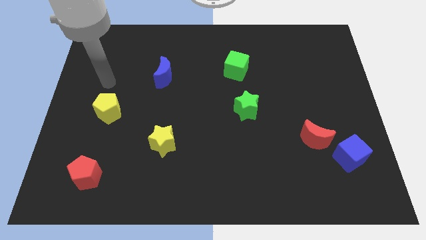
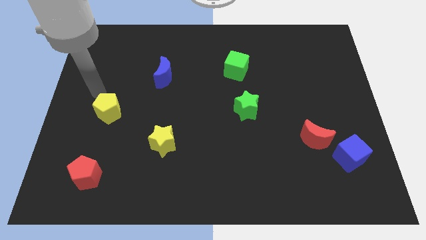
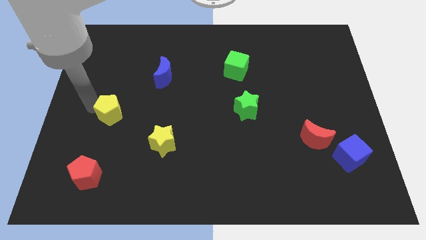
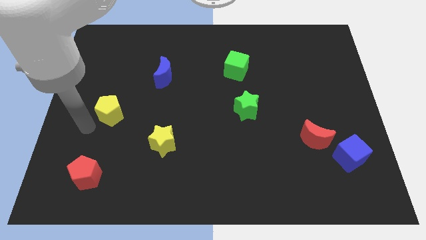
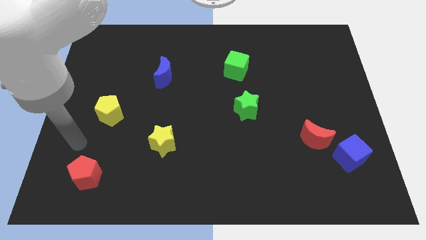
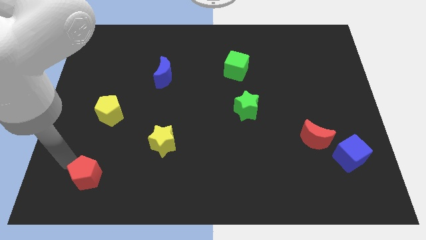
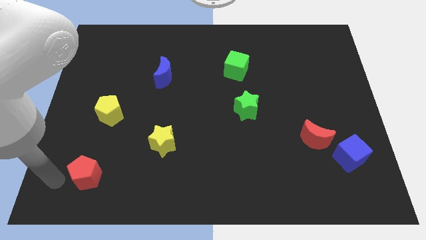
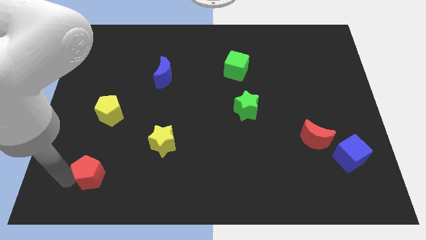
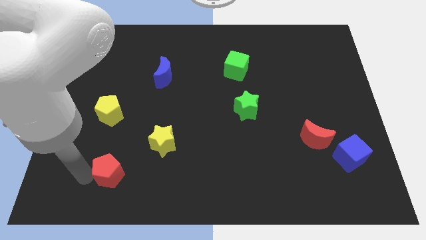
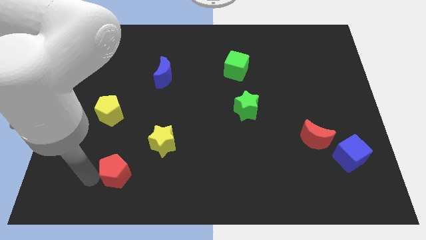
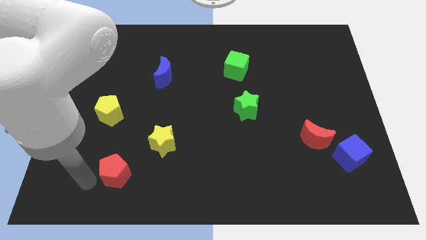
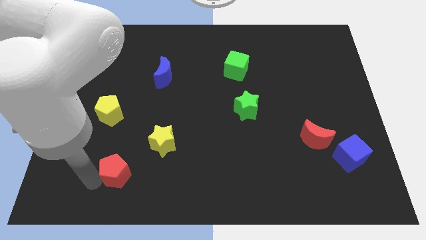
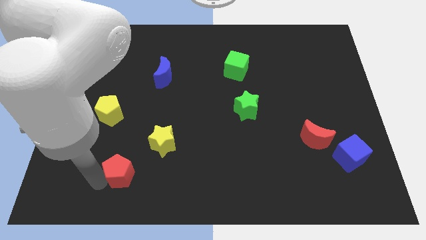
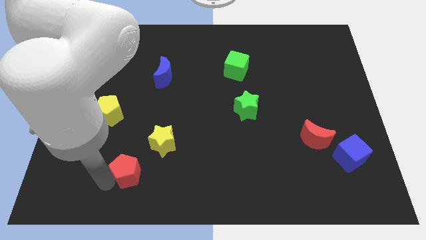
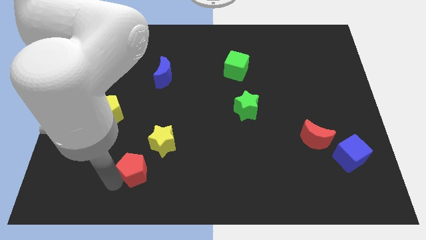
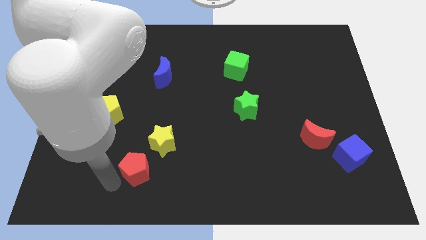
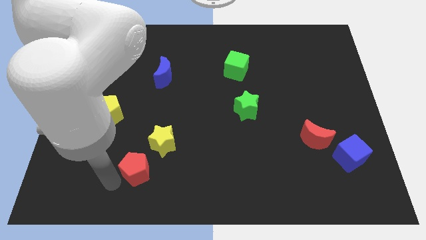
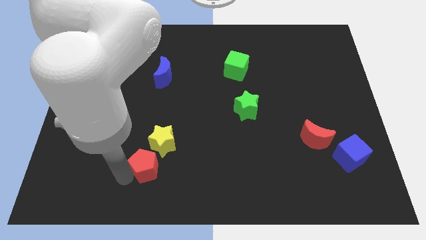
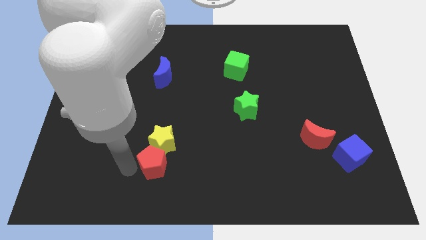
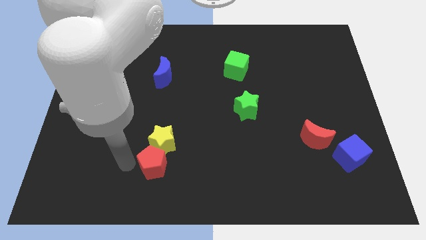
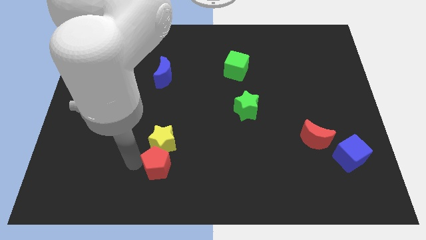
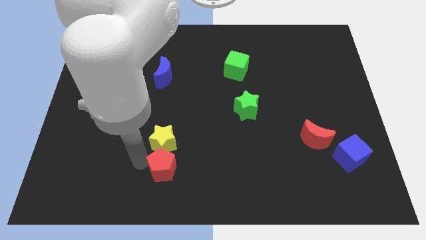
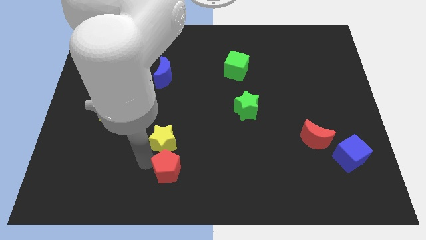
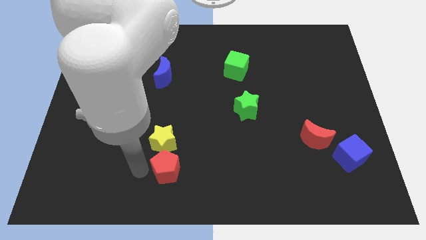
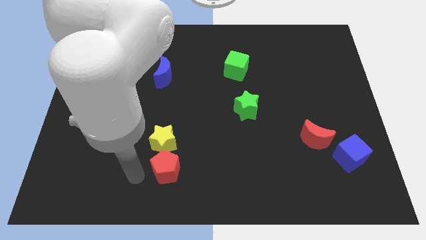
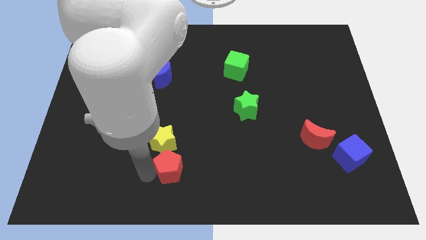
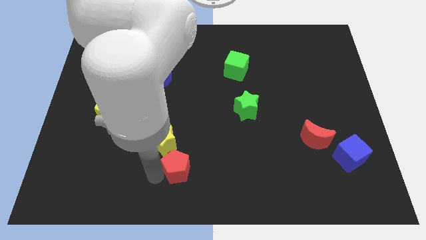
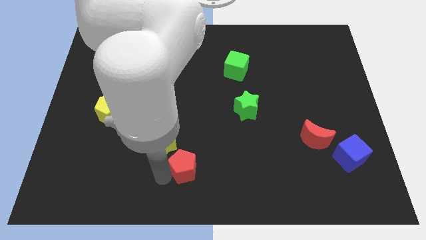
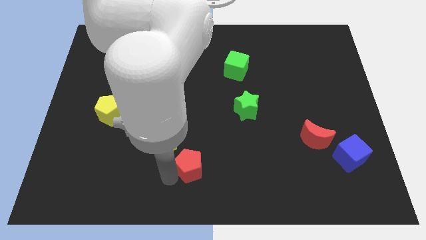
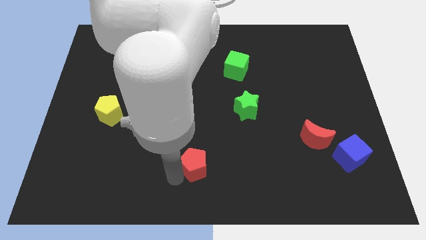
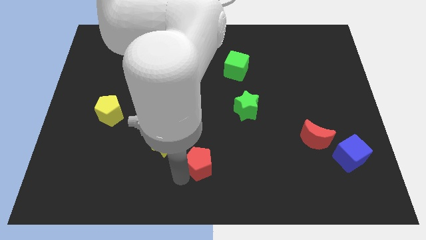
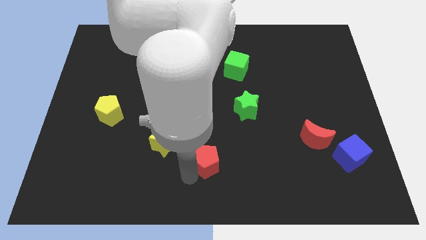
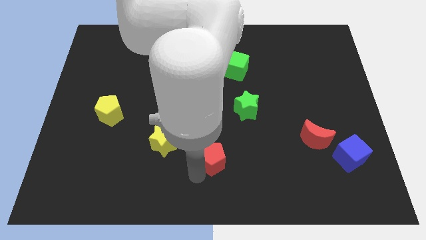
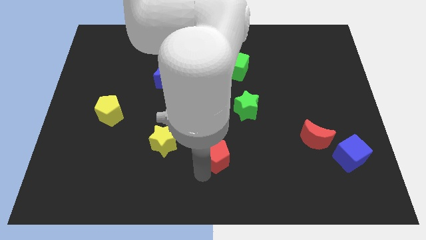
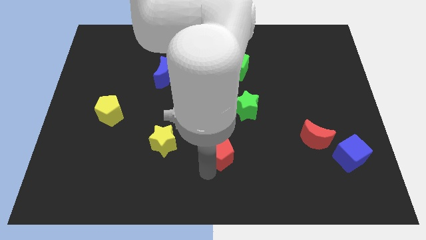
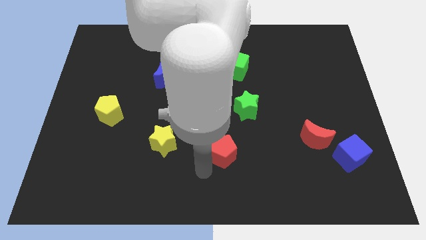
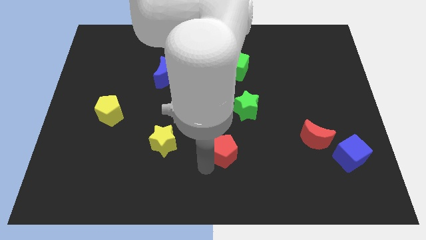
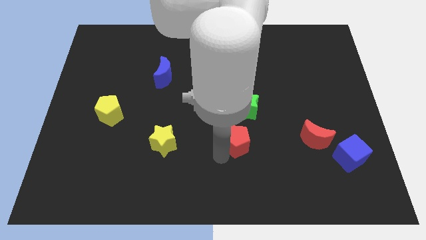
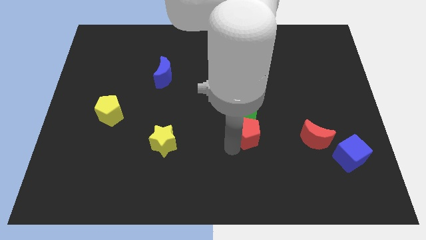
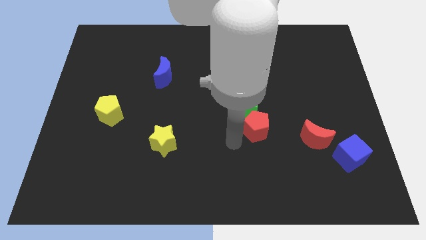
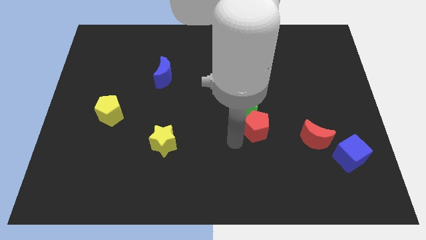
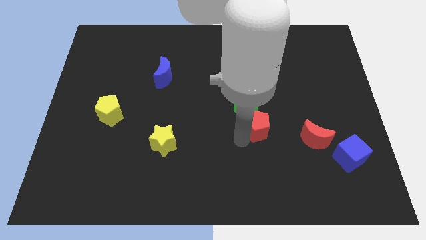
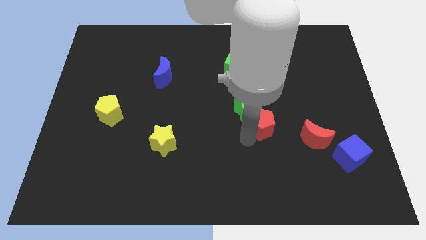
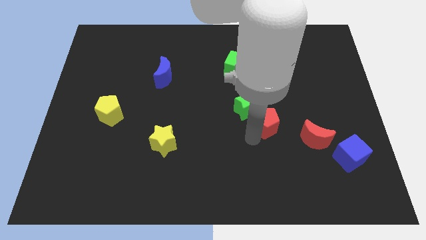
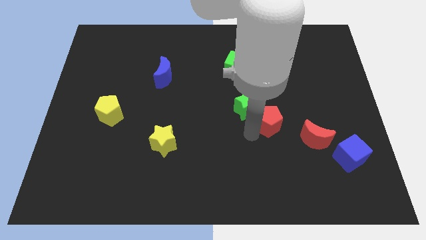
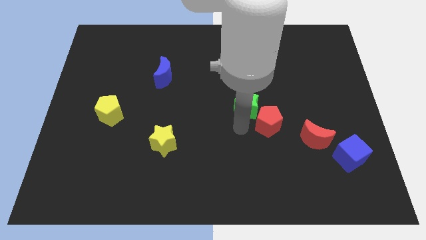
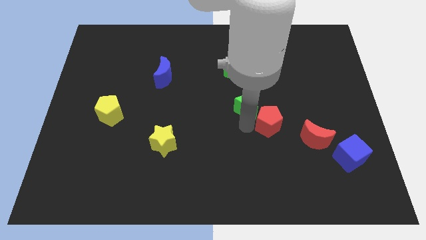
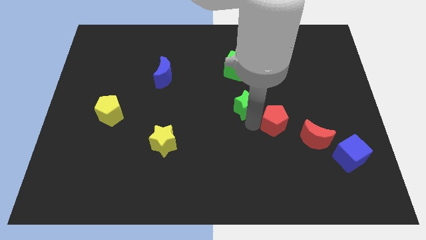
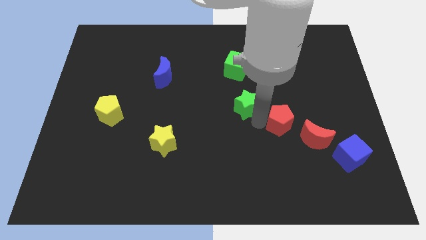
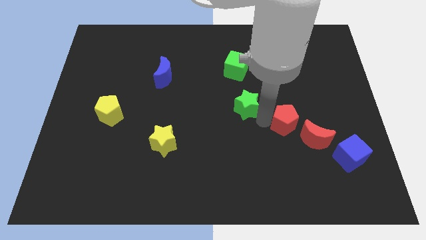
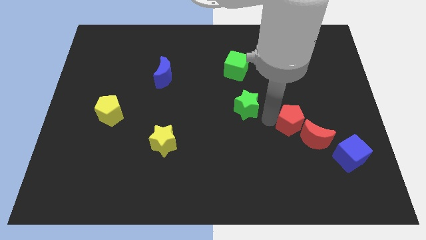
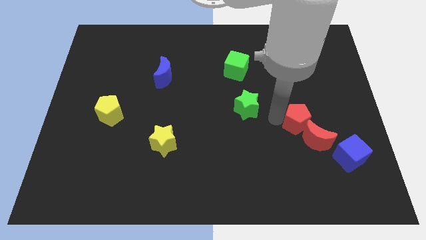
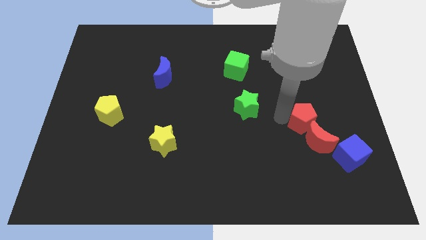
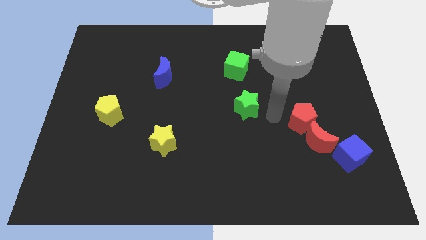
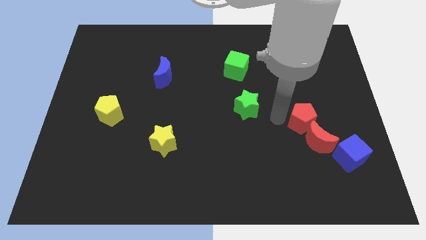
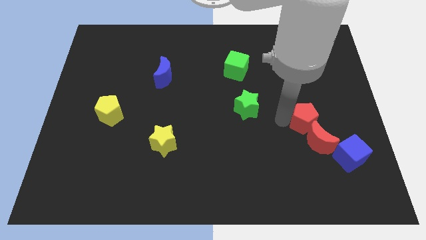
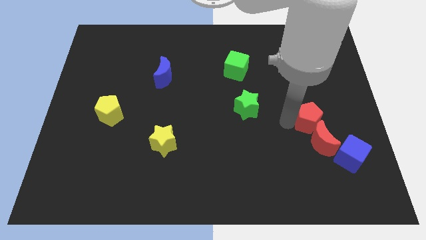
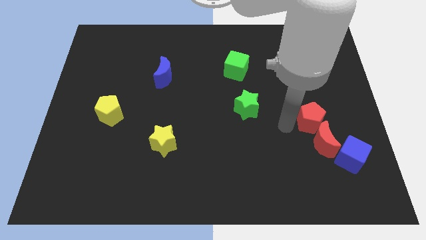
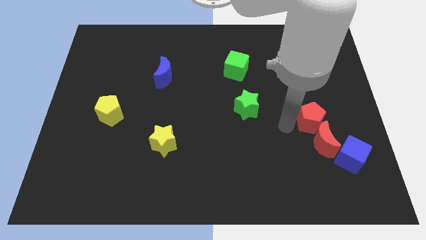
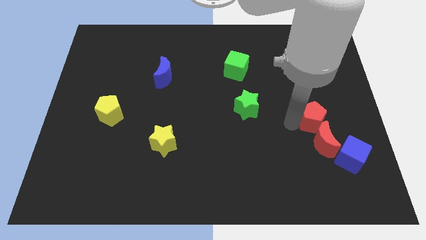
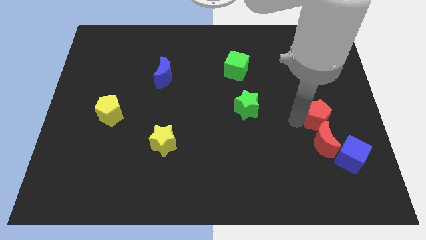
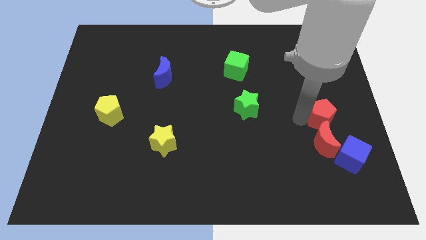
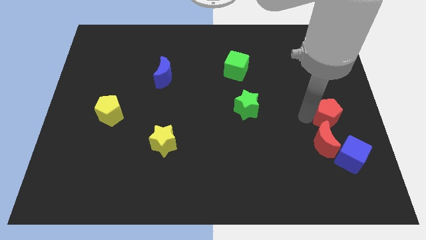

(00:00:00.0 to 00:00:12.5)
slide the red pentagon to the center right
